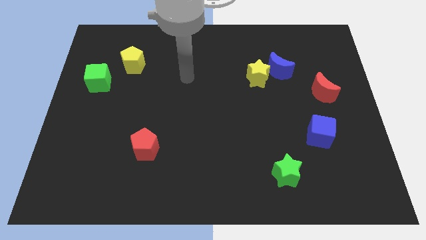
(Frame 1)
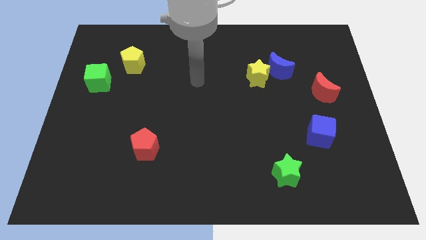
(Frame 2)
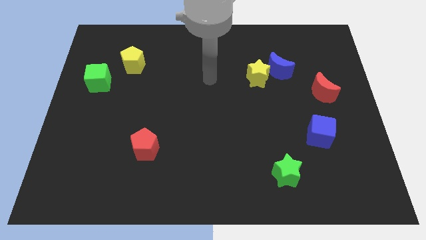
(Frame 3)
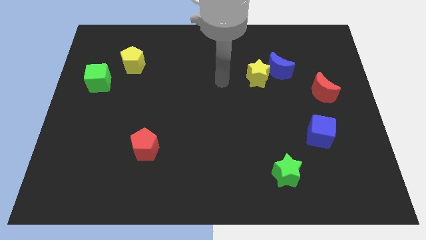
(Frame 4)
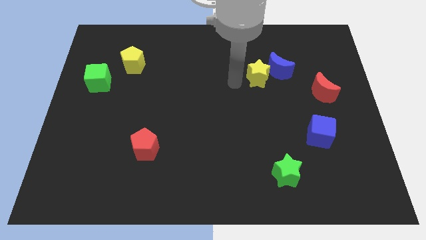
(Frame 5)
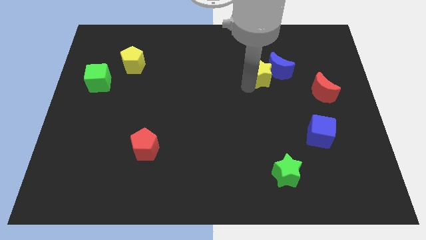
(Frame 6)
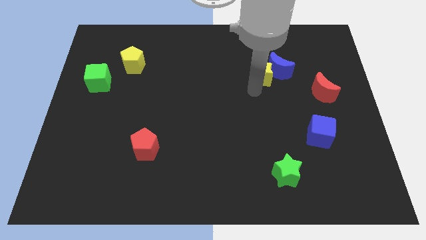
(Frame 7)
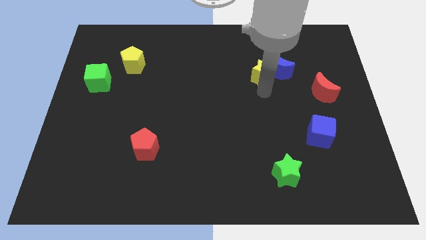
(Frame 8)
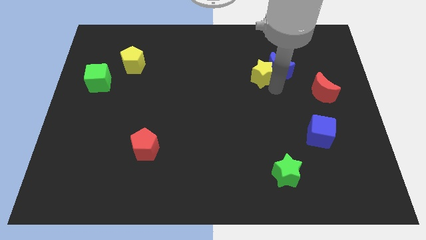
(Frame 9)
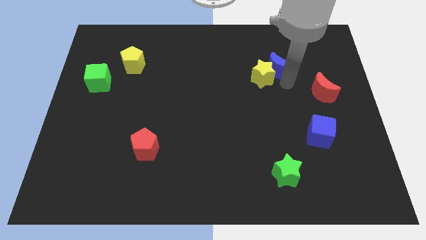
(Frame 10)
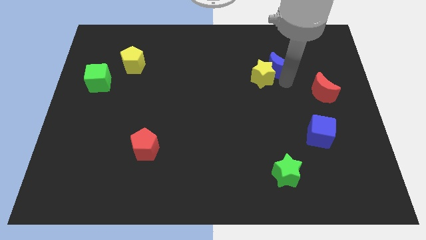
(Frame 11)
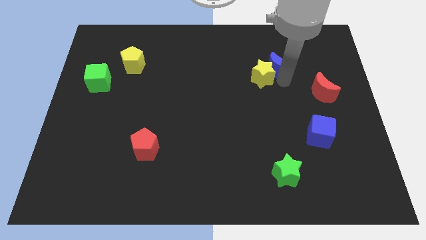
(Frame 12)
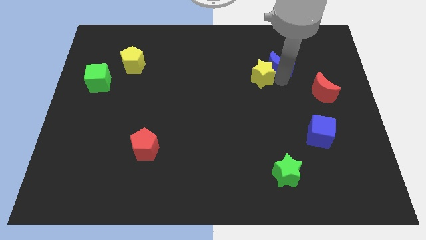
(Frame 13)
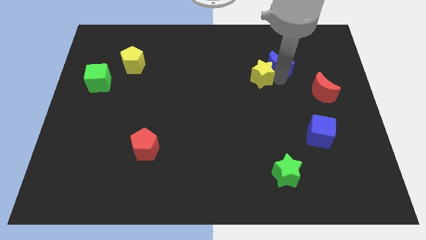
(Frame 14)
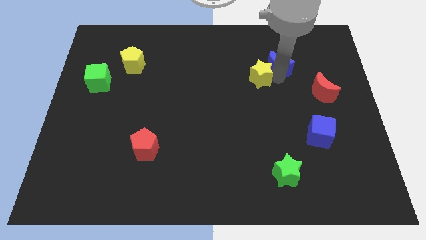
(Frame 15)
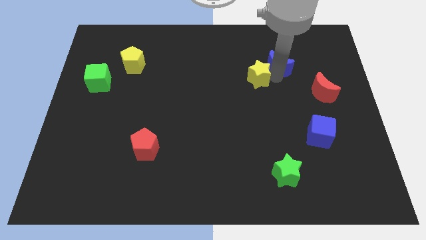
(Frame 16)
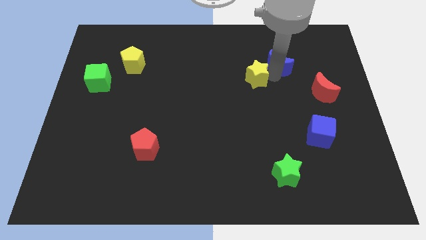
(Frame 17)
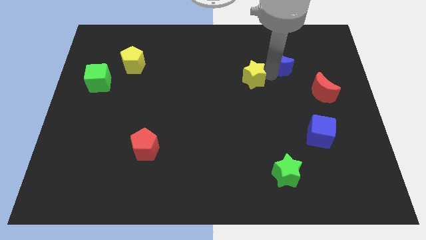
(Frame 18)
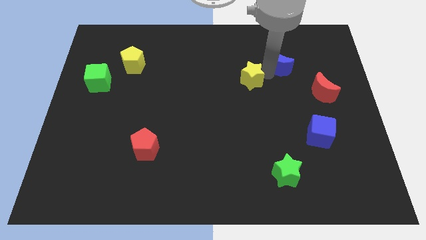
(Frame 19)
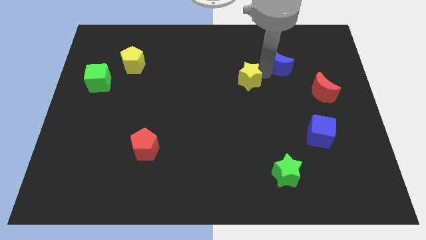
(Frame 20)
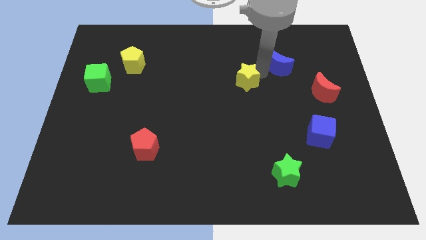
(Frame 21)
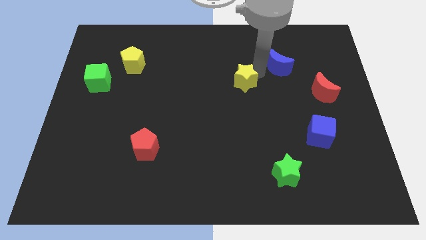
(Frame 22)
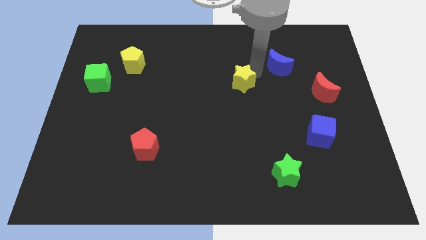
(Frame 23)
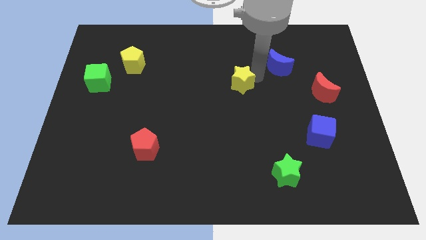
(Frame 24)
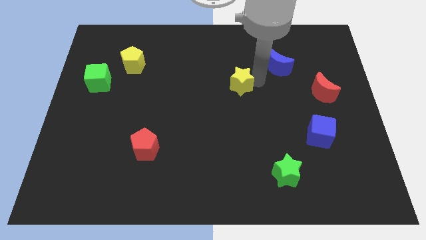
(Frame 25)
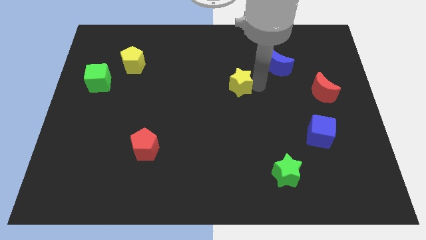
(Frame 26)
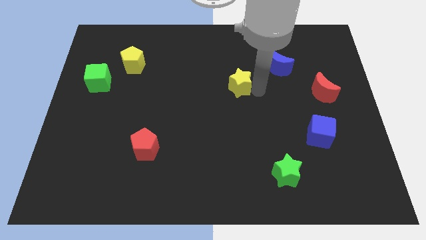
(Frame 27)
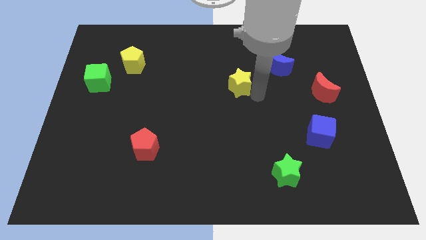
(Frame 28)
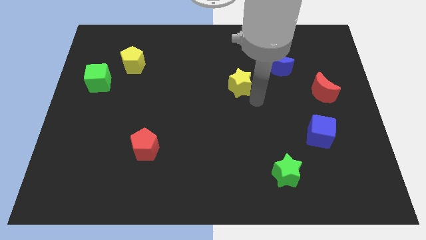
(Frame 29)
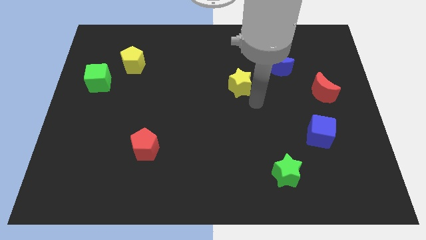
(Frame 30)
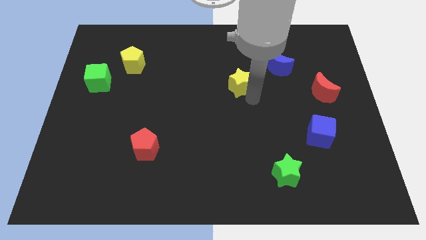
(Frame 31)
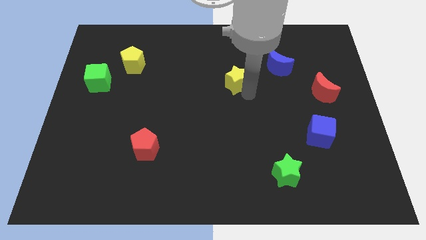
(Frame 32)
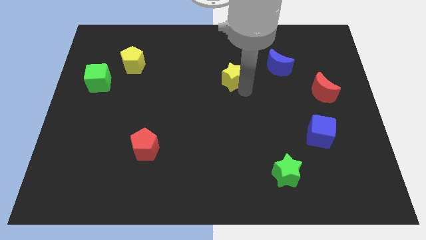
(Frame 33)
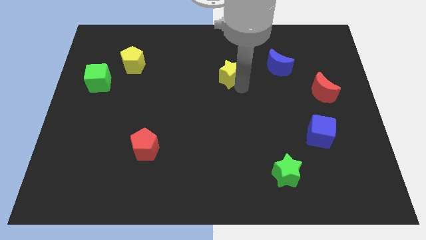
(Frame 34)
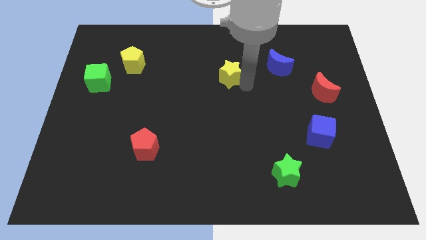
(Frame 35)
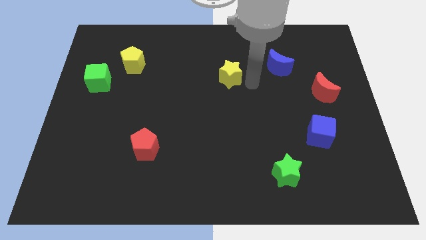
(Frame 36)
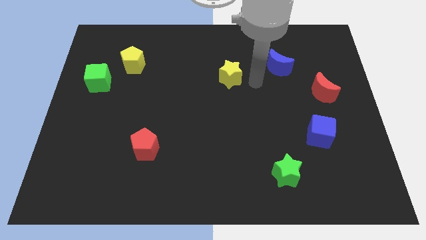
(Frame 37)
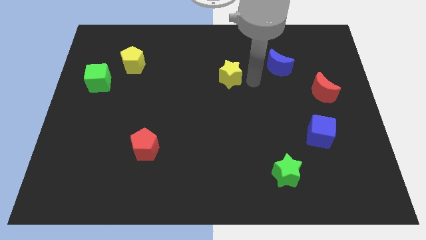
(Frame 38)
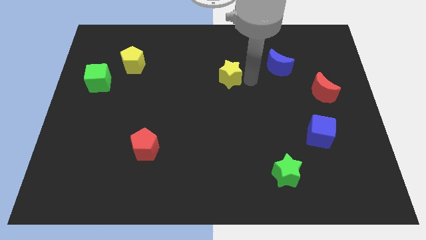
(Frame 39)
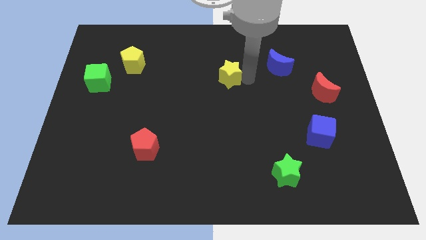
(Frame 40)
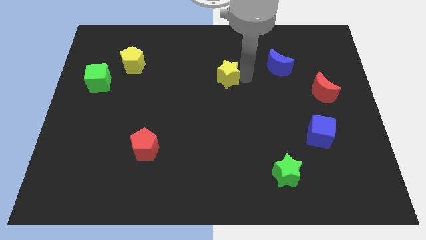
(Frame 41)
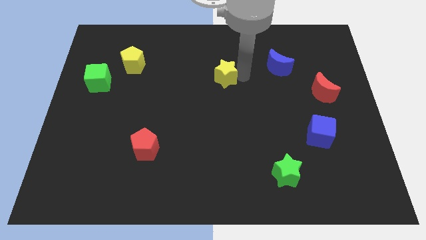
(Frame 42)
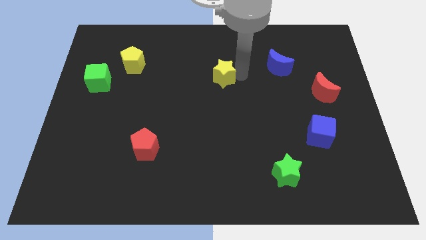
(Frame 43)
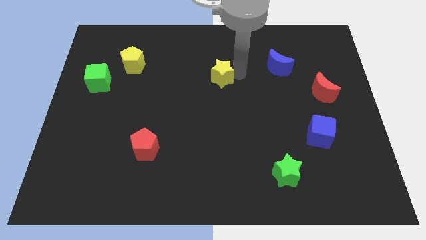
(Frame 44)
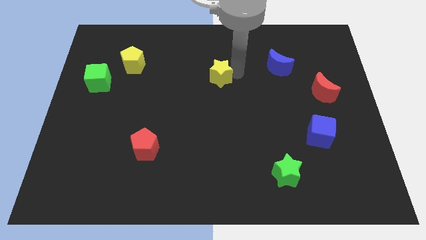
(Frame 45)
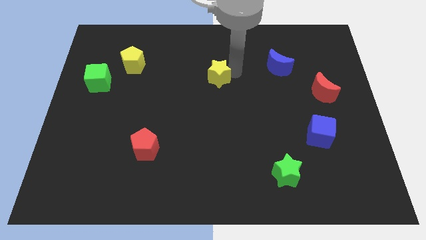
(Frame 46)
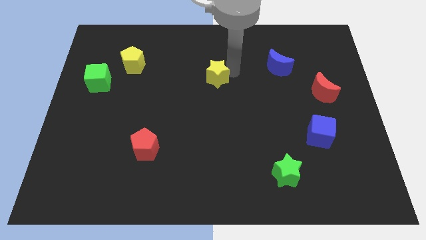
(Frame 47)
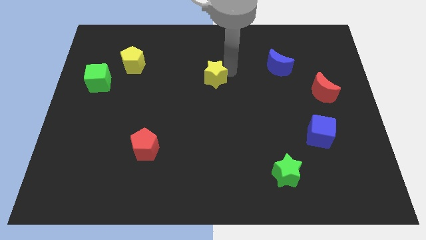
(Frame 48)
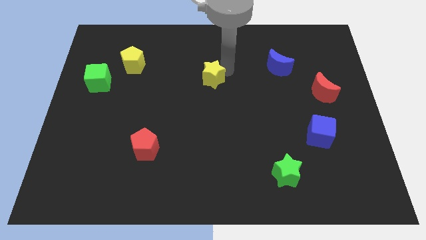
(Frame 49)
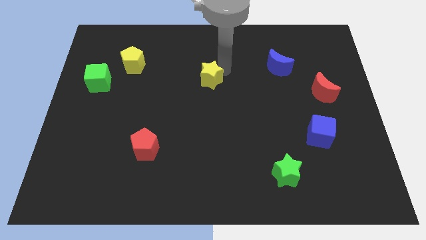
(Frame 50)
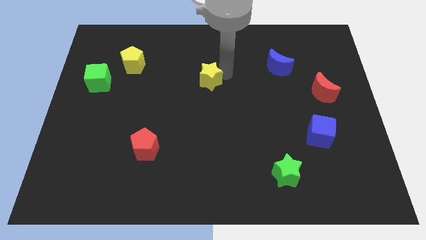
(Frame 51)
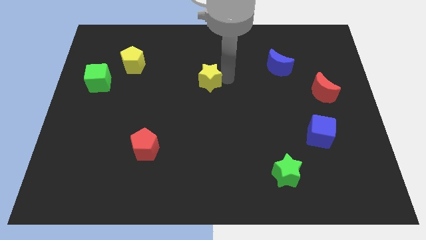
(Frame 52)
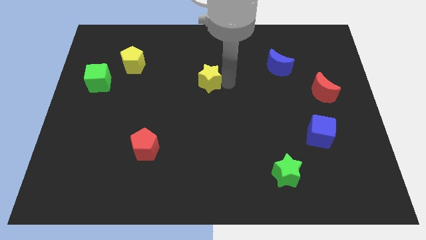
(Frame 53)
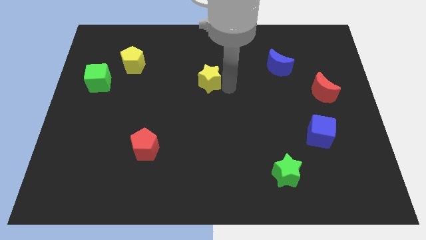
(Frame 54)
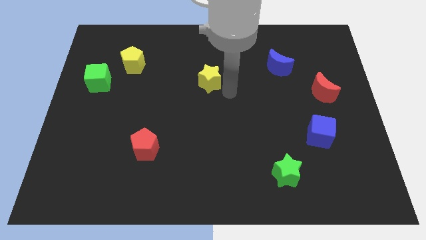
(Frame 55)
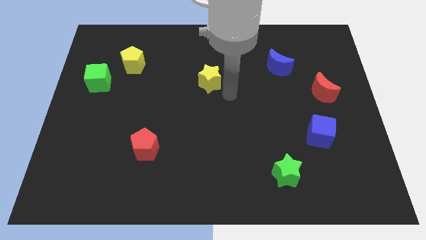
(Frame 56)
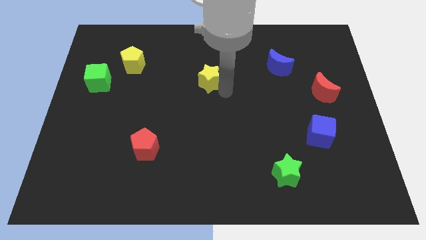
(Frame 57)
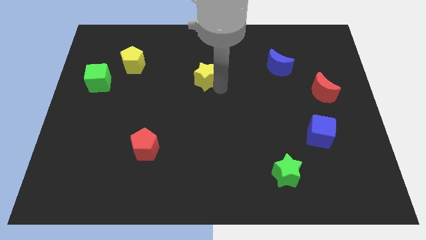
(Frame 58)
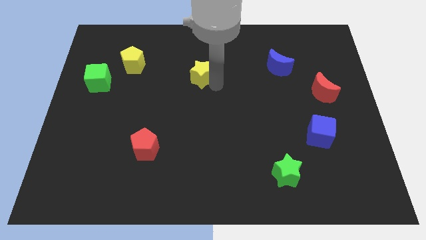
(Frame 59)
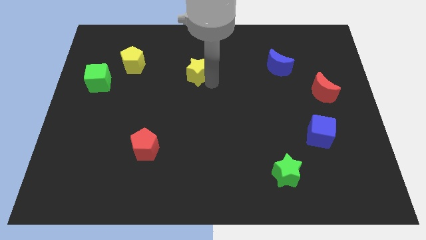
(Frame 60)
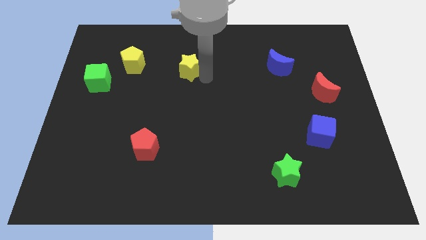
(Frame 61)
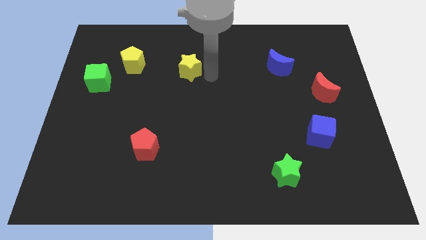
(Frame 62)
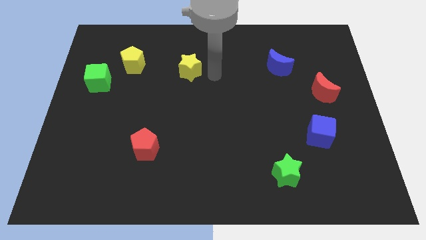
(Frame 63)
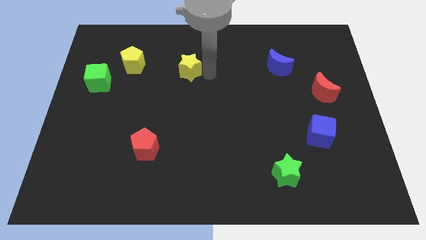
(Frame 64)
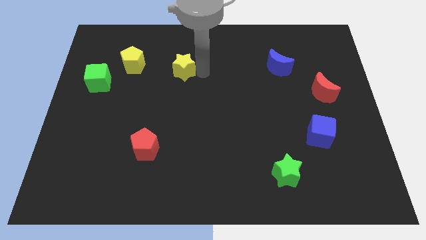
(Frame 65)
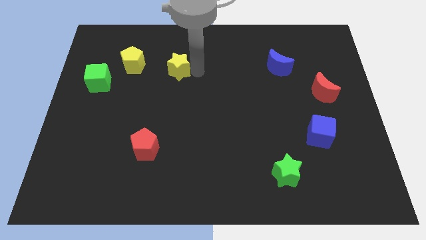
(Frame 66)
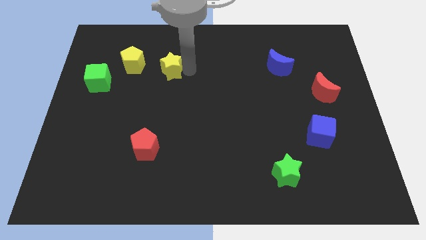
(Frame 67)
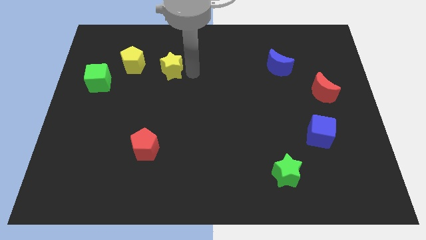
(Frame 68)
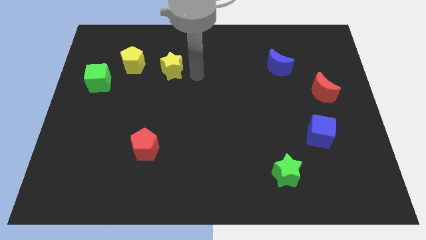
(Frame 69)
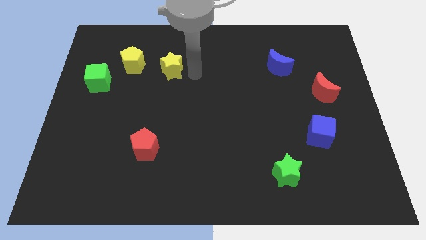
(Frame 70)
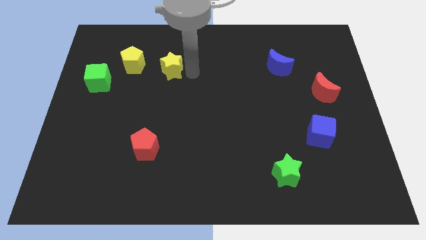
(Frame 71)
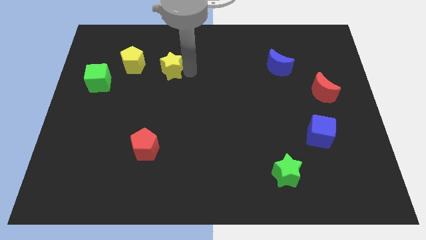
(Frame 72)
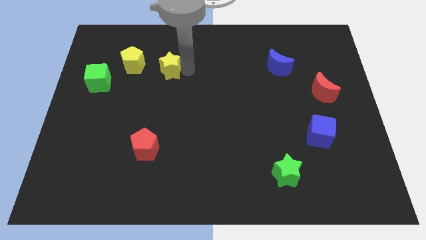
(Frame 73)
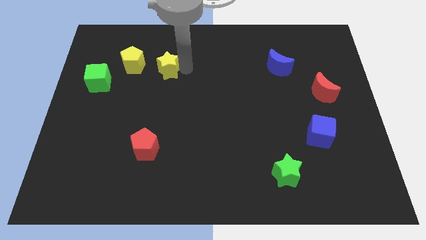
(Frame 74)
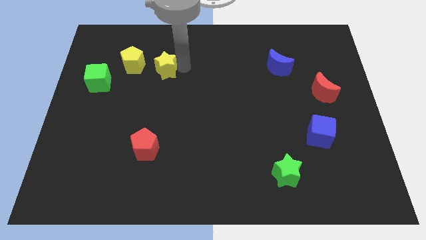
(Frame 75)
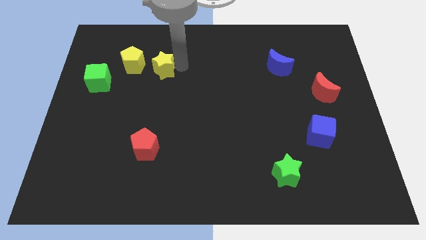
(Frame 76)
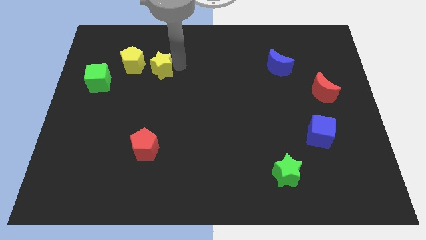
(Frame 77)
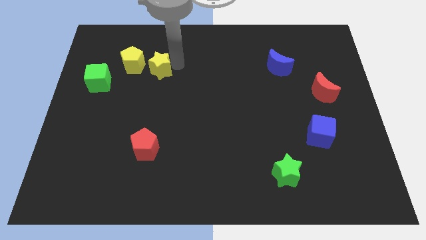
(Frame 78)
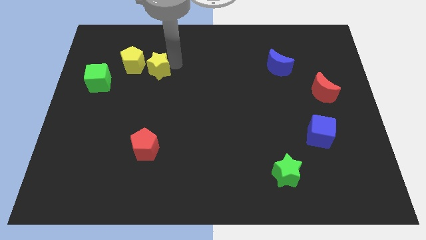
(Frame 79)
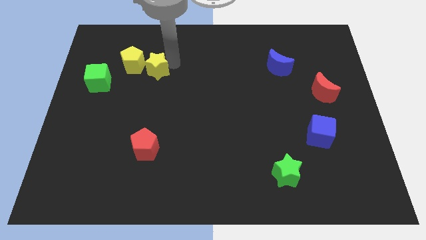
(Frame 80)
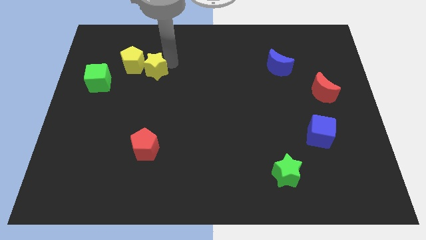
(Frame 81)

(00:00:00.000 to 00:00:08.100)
put the yellow star towards the yellow pentagon
